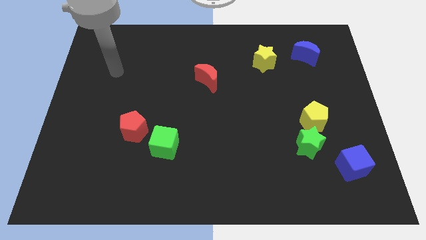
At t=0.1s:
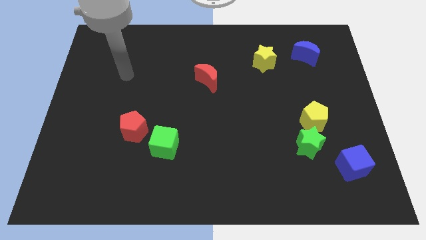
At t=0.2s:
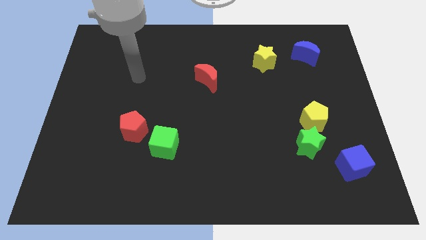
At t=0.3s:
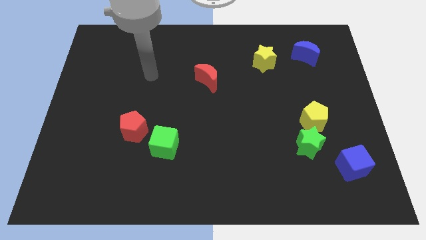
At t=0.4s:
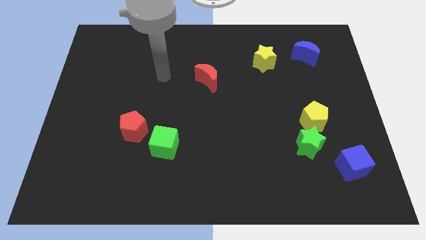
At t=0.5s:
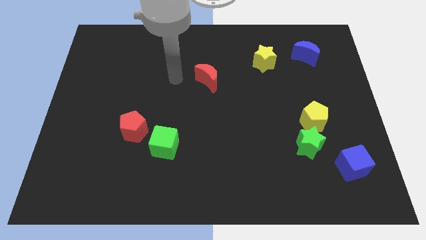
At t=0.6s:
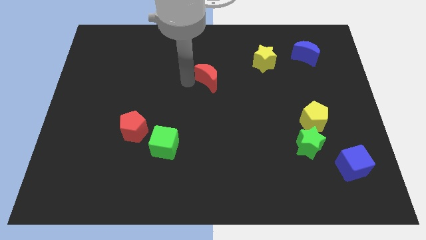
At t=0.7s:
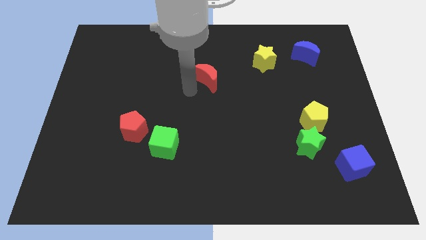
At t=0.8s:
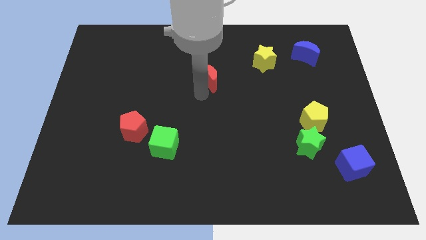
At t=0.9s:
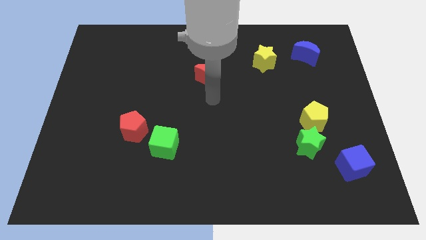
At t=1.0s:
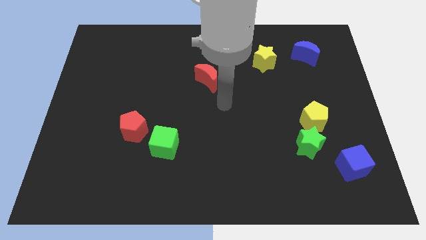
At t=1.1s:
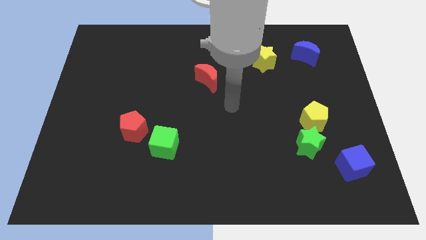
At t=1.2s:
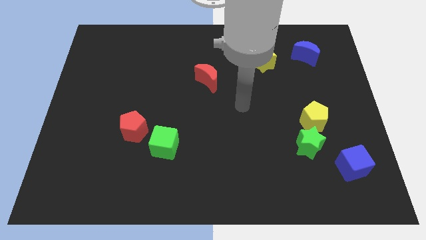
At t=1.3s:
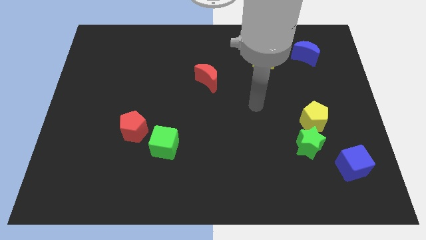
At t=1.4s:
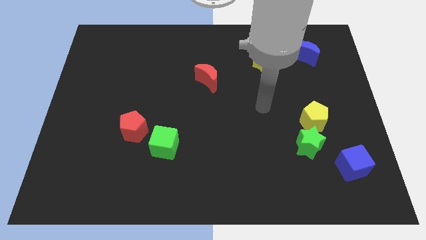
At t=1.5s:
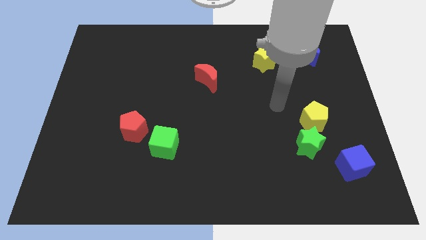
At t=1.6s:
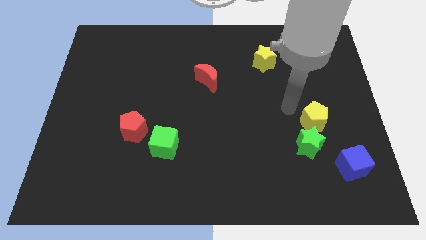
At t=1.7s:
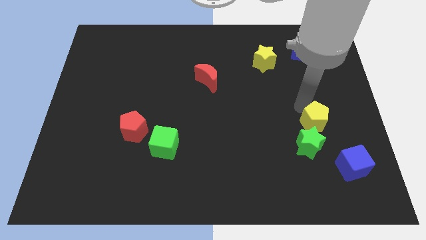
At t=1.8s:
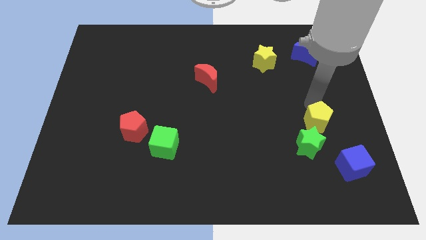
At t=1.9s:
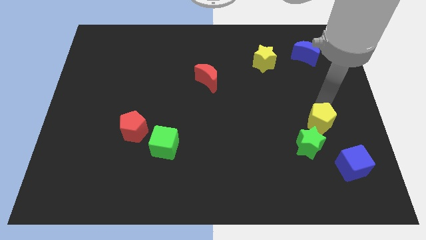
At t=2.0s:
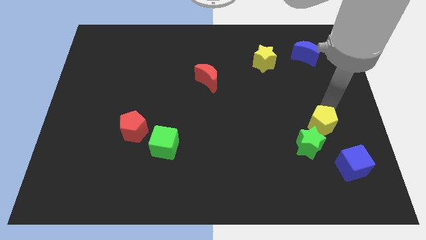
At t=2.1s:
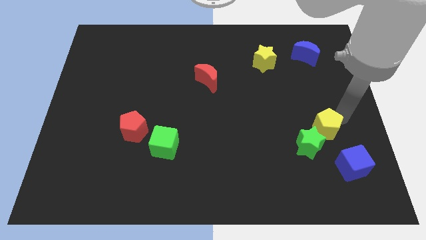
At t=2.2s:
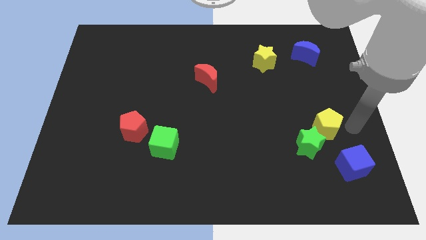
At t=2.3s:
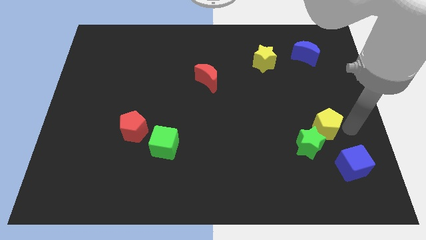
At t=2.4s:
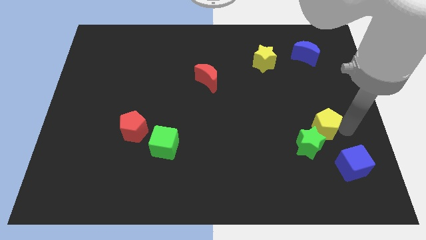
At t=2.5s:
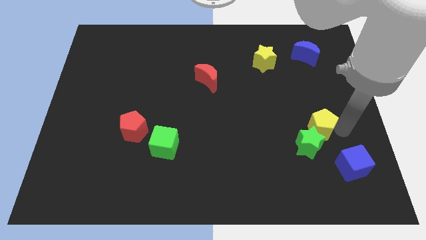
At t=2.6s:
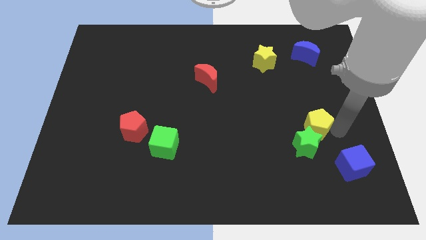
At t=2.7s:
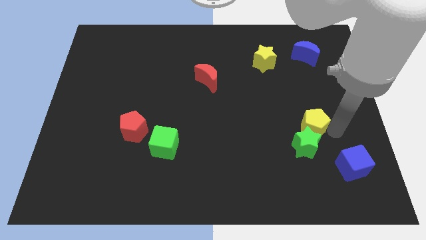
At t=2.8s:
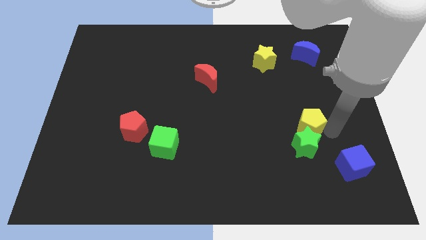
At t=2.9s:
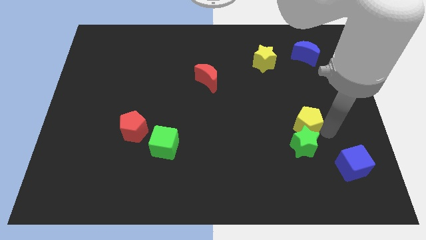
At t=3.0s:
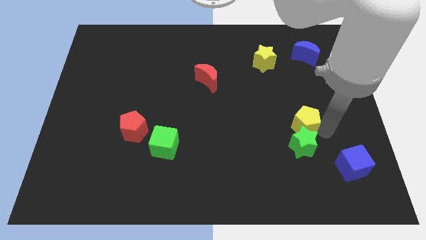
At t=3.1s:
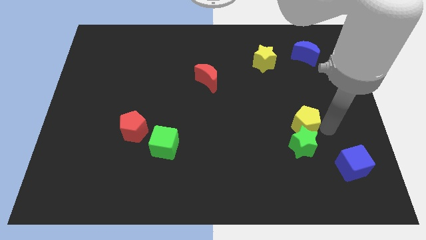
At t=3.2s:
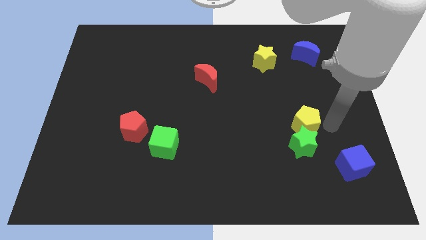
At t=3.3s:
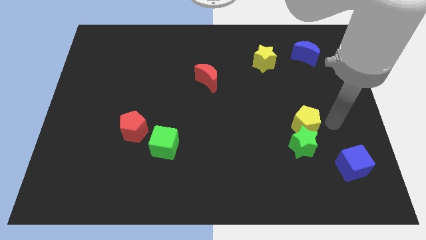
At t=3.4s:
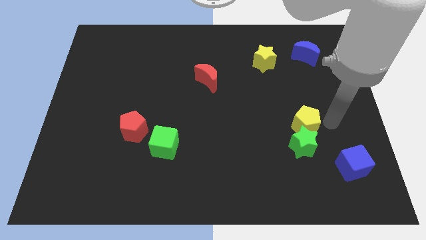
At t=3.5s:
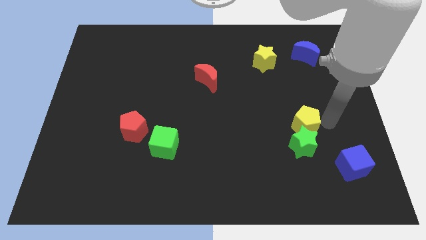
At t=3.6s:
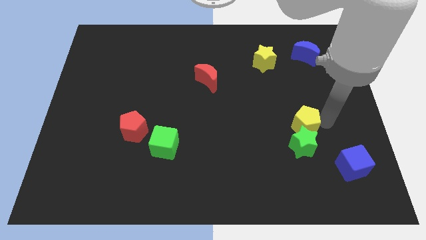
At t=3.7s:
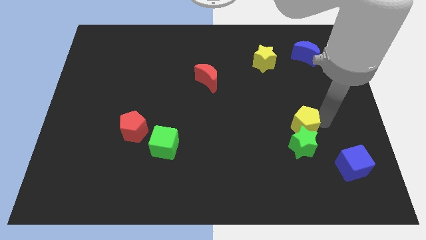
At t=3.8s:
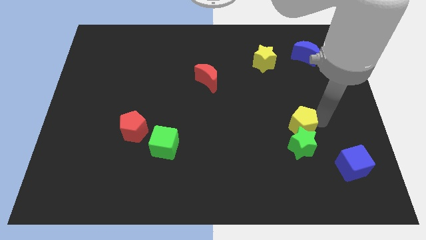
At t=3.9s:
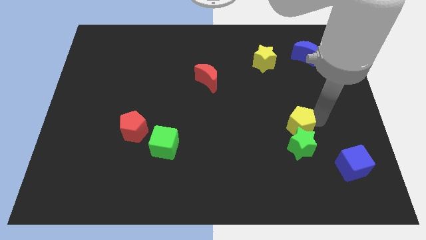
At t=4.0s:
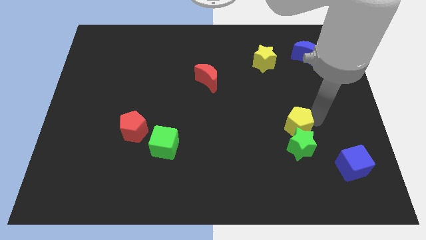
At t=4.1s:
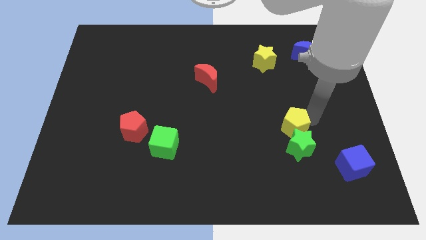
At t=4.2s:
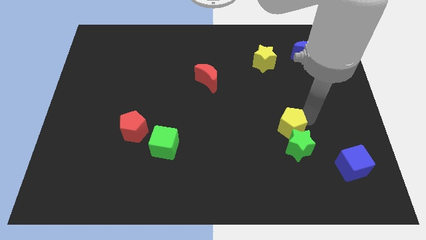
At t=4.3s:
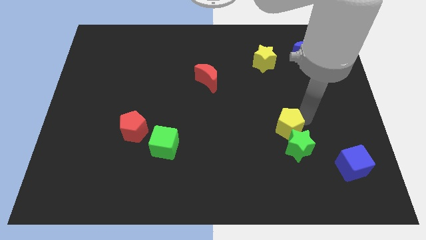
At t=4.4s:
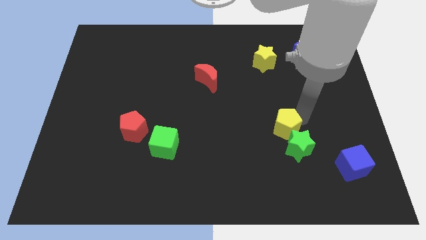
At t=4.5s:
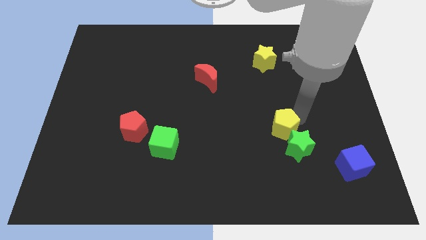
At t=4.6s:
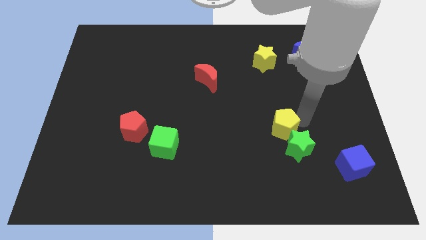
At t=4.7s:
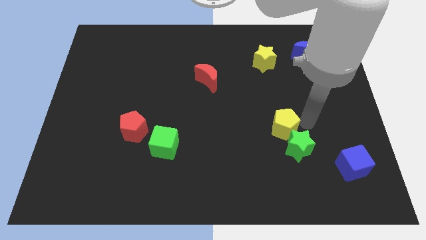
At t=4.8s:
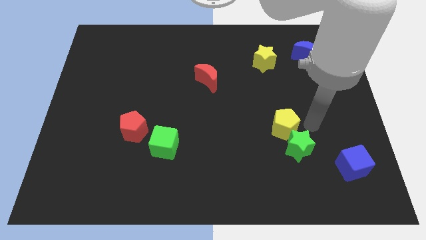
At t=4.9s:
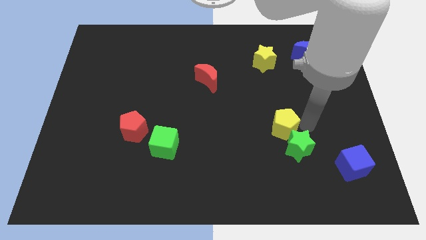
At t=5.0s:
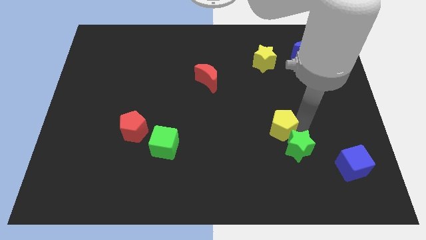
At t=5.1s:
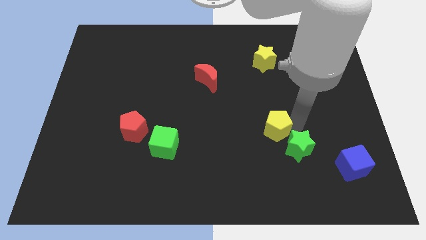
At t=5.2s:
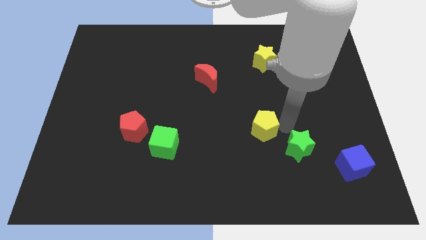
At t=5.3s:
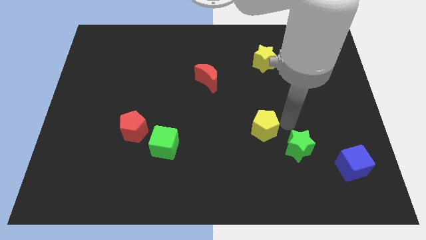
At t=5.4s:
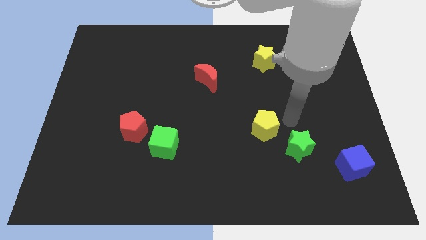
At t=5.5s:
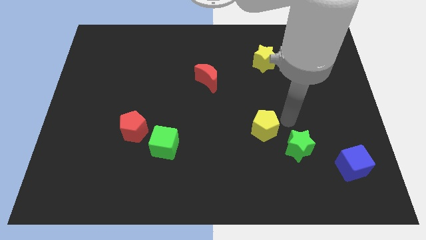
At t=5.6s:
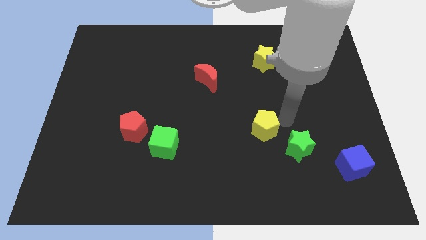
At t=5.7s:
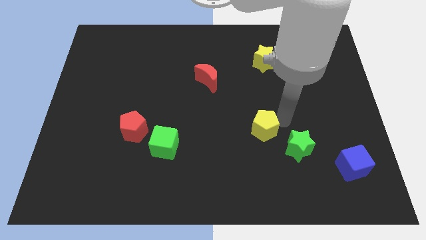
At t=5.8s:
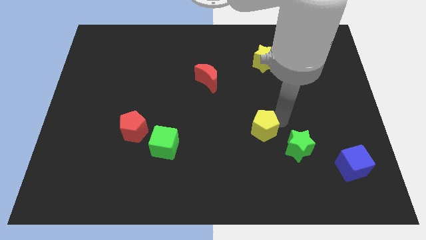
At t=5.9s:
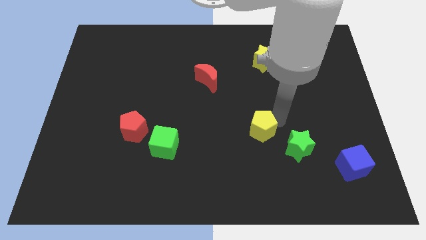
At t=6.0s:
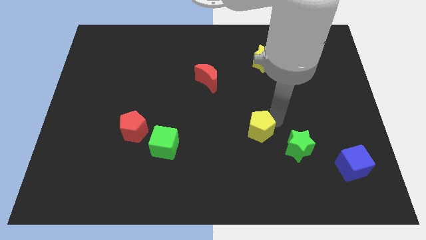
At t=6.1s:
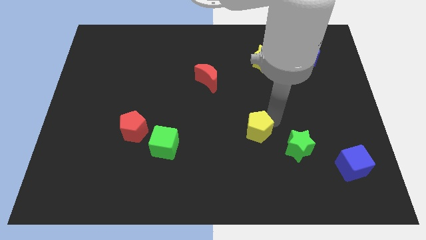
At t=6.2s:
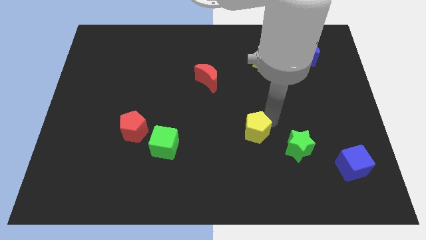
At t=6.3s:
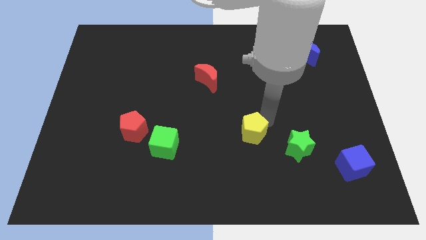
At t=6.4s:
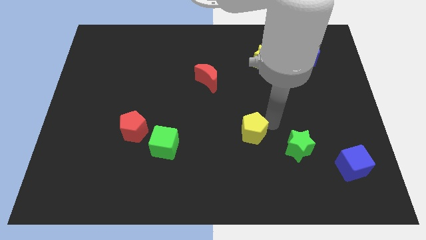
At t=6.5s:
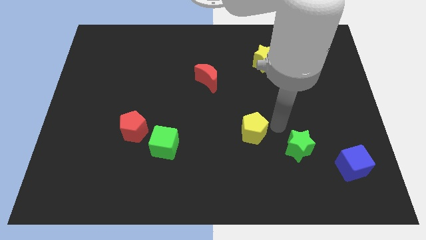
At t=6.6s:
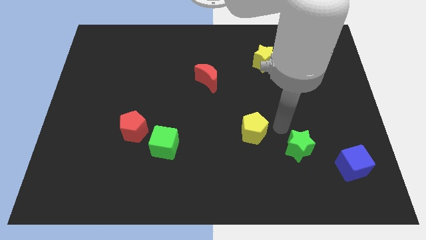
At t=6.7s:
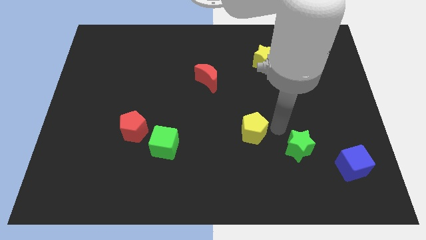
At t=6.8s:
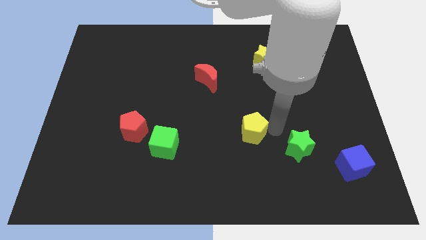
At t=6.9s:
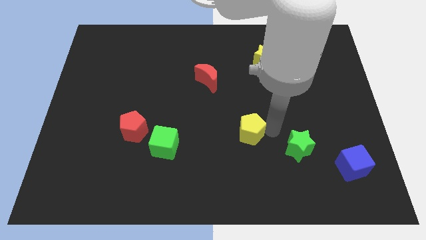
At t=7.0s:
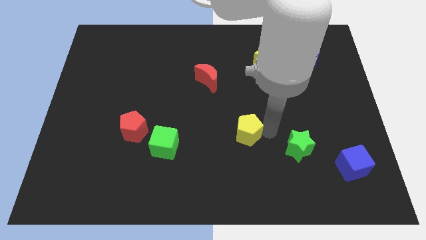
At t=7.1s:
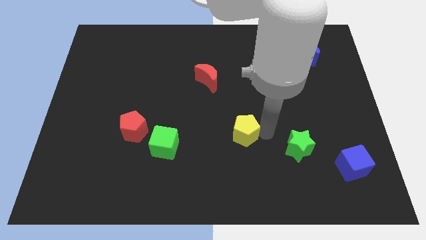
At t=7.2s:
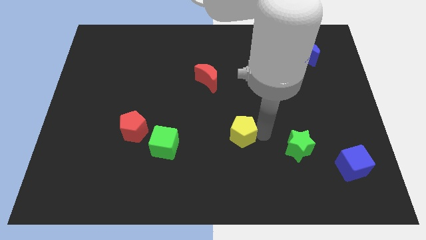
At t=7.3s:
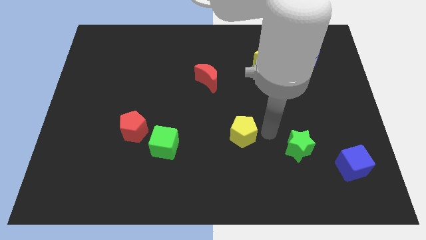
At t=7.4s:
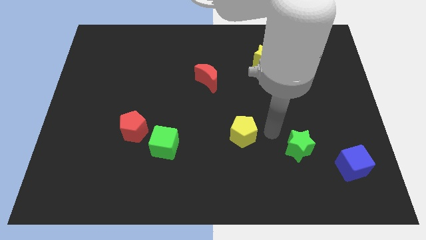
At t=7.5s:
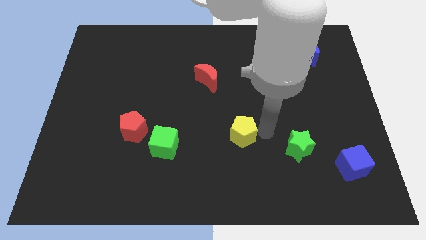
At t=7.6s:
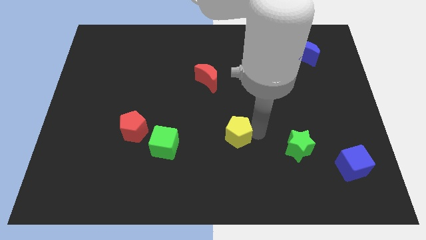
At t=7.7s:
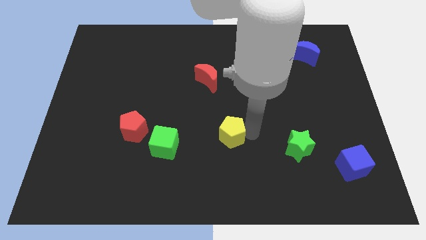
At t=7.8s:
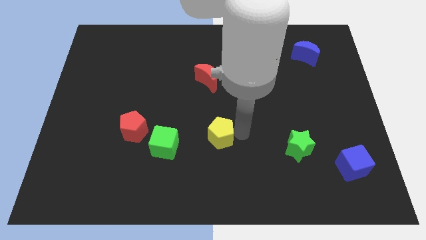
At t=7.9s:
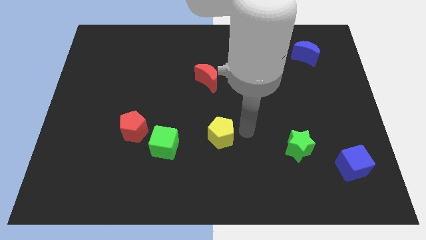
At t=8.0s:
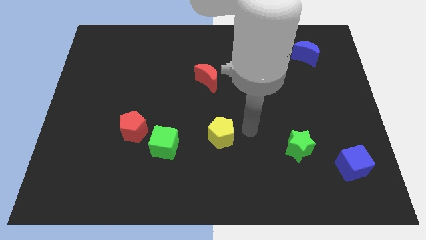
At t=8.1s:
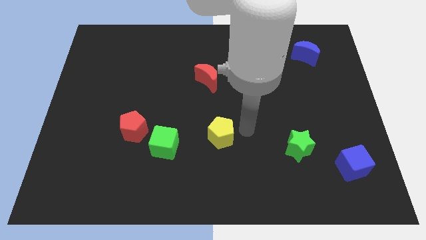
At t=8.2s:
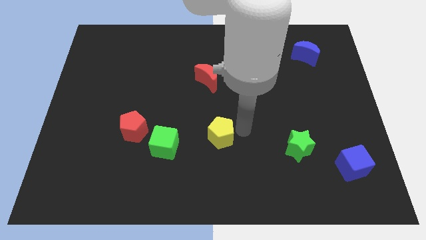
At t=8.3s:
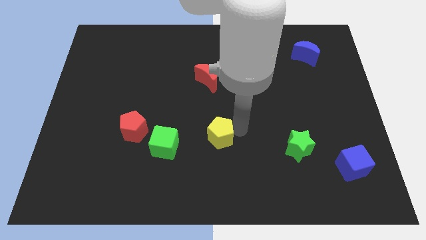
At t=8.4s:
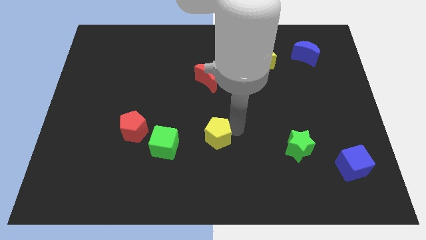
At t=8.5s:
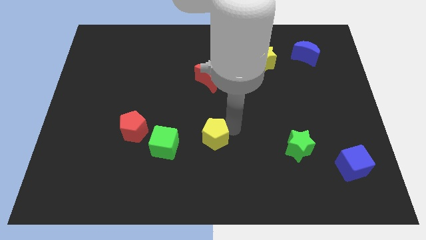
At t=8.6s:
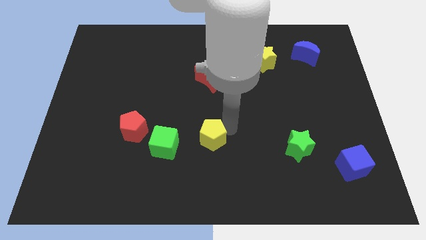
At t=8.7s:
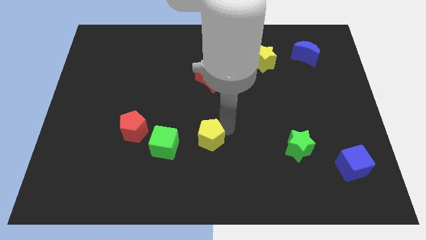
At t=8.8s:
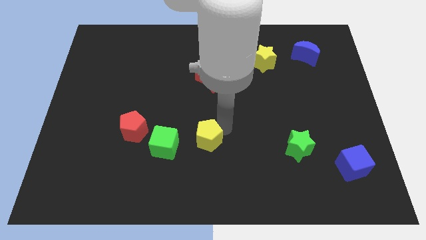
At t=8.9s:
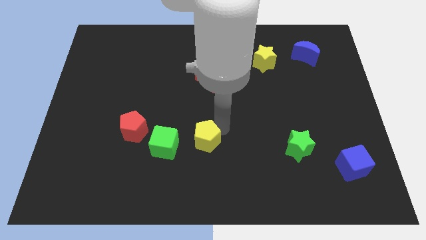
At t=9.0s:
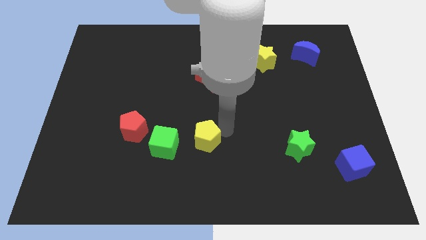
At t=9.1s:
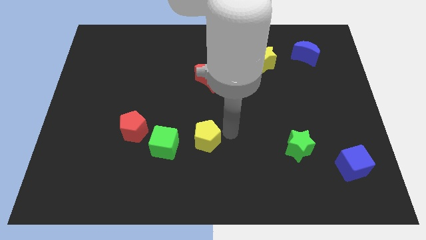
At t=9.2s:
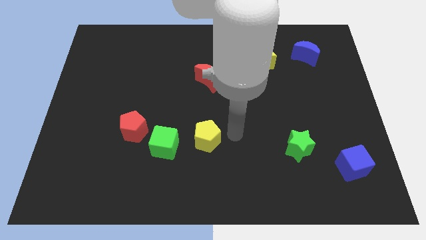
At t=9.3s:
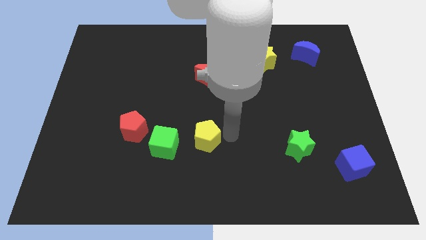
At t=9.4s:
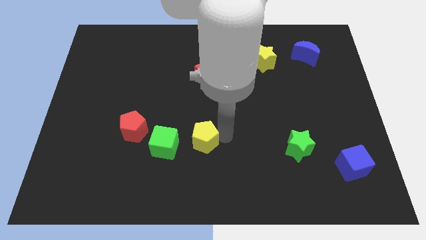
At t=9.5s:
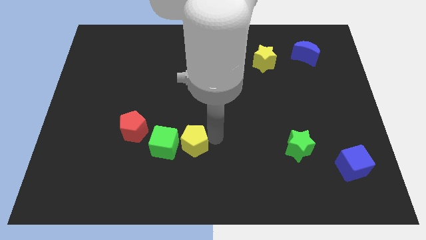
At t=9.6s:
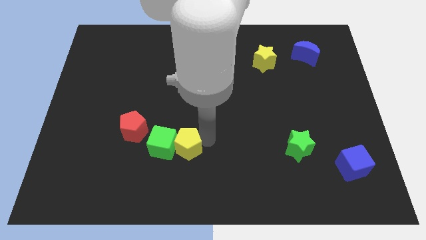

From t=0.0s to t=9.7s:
move the yellow pentagon next to the green cube
